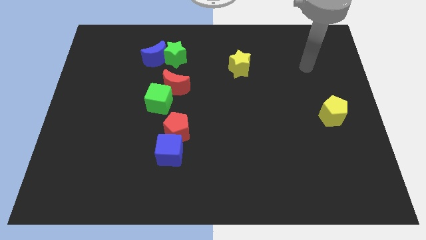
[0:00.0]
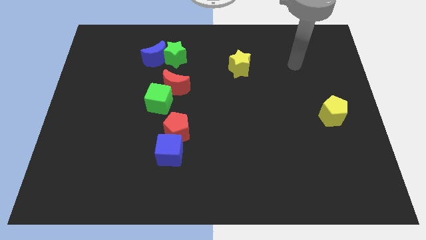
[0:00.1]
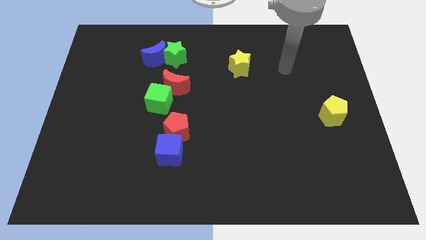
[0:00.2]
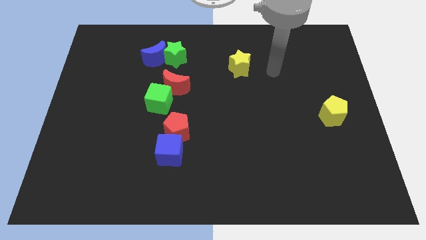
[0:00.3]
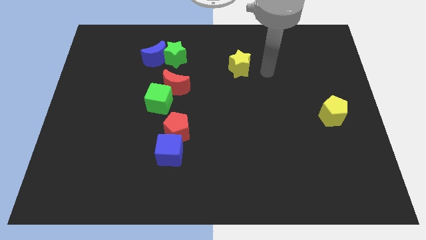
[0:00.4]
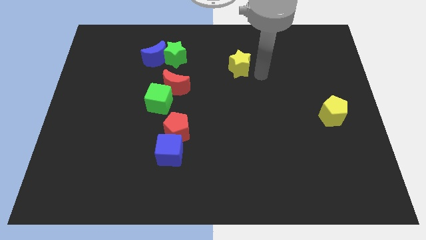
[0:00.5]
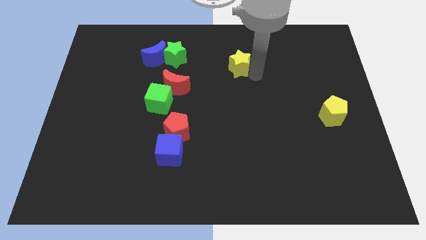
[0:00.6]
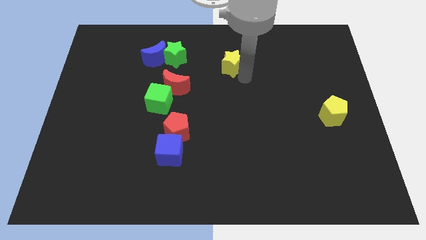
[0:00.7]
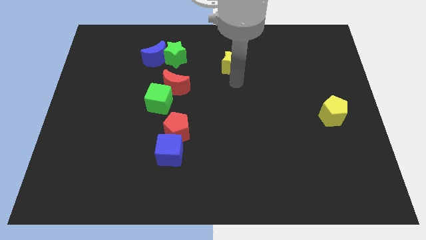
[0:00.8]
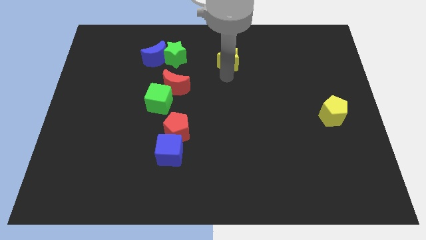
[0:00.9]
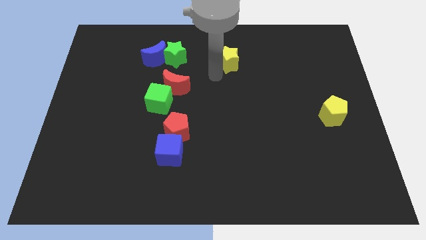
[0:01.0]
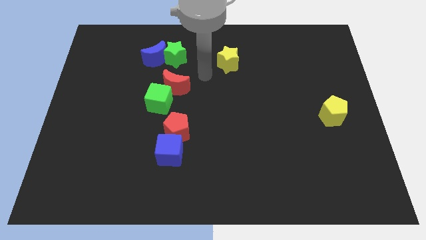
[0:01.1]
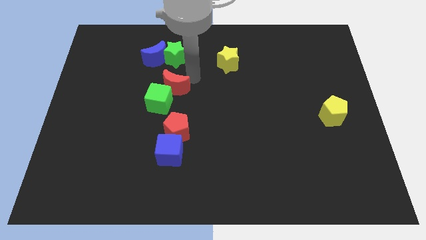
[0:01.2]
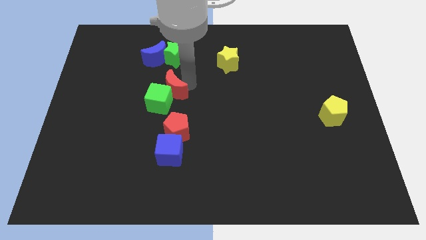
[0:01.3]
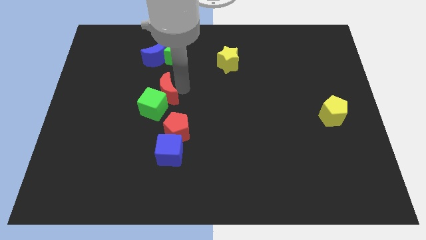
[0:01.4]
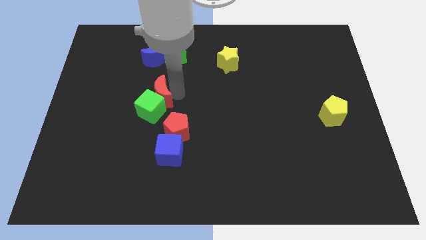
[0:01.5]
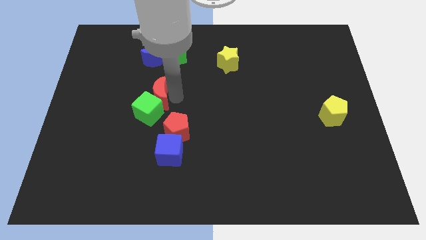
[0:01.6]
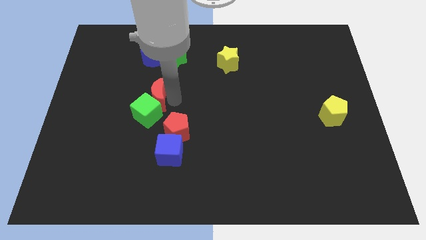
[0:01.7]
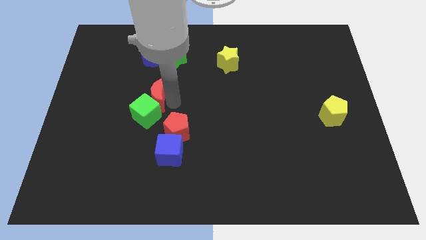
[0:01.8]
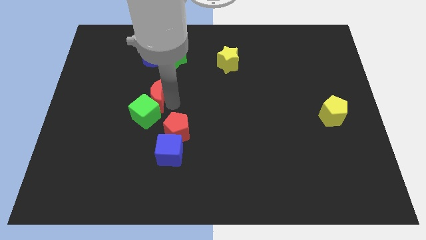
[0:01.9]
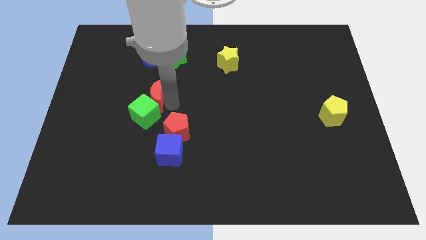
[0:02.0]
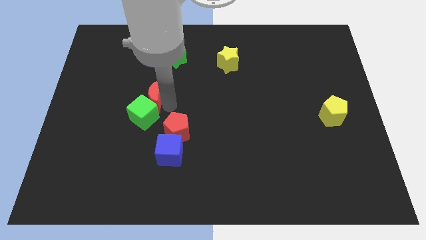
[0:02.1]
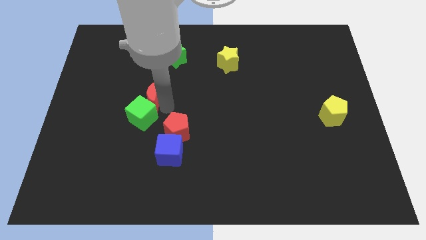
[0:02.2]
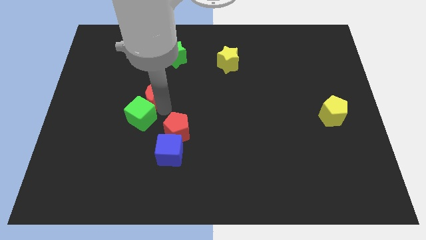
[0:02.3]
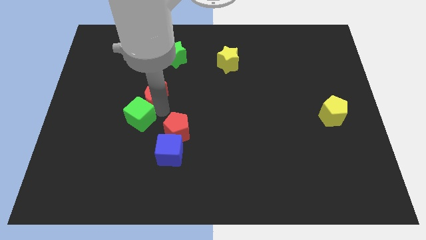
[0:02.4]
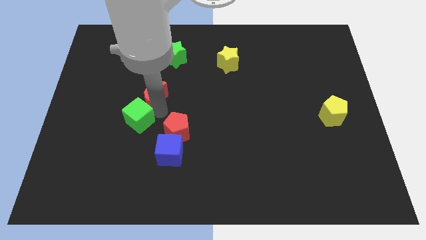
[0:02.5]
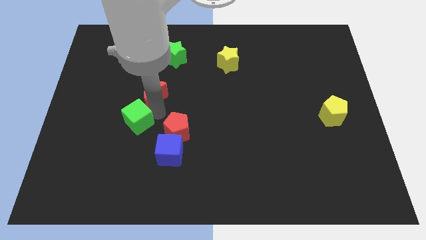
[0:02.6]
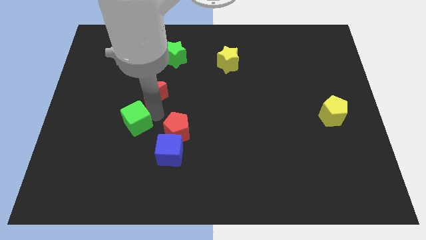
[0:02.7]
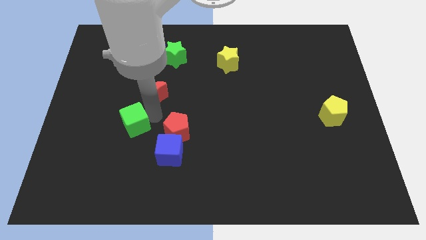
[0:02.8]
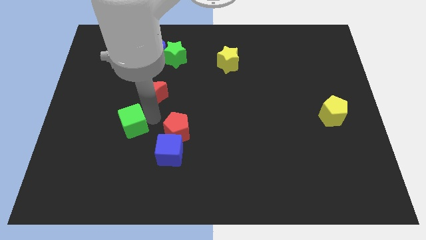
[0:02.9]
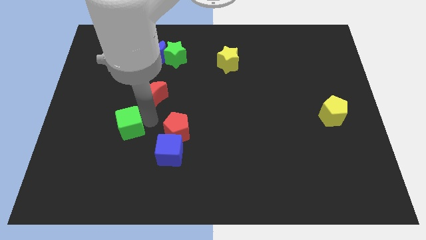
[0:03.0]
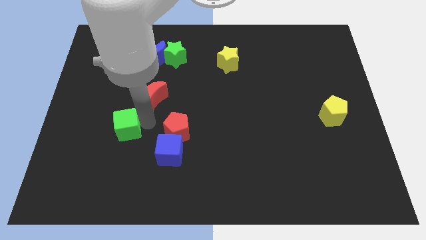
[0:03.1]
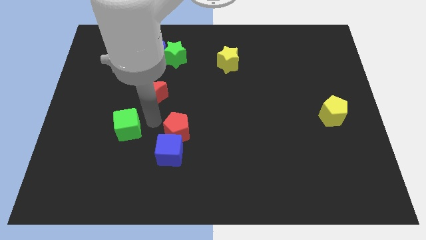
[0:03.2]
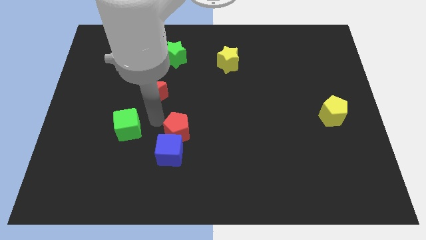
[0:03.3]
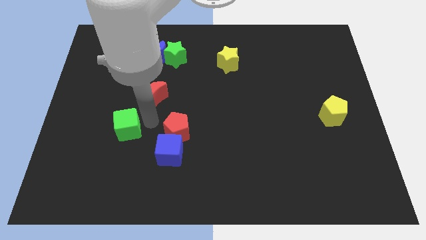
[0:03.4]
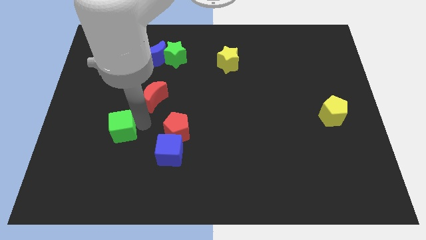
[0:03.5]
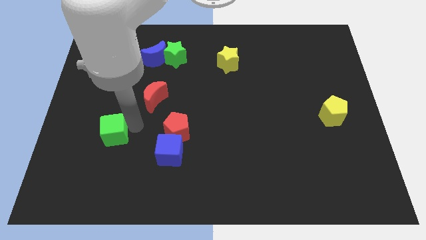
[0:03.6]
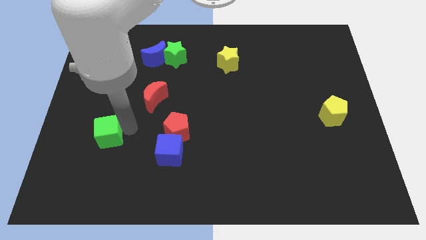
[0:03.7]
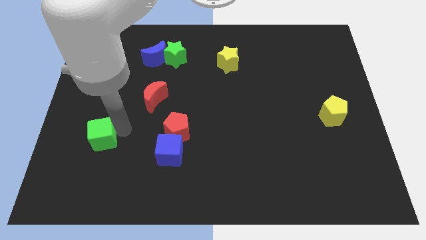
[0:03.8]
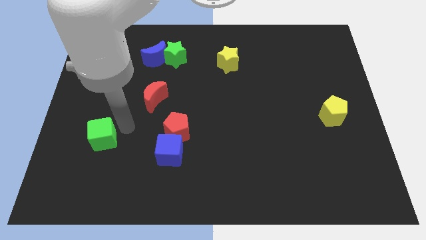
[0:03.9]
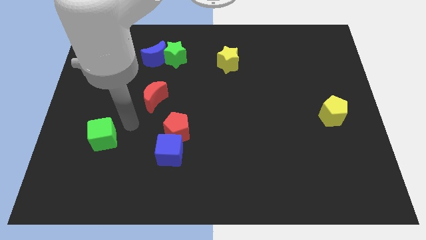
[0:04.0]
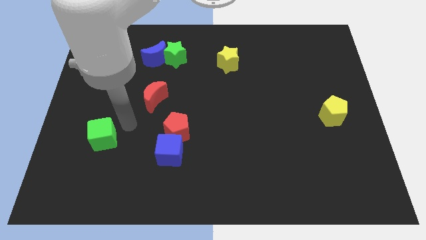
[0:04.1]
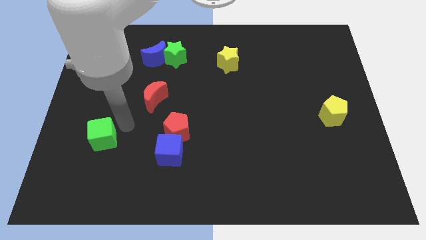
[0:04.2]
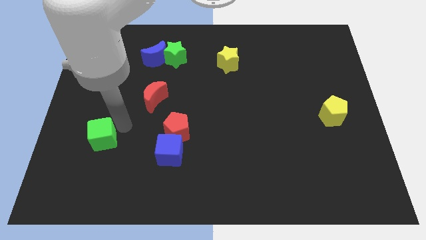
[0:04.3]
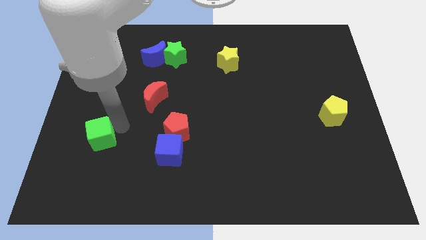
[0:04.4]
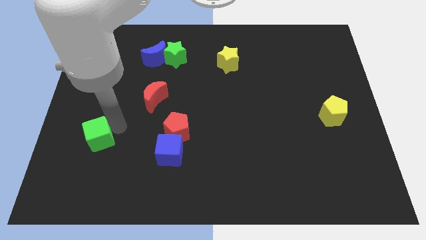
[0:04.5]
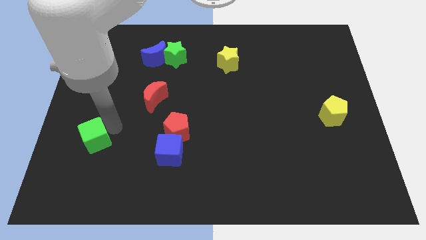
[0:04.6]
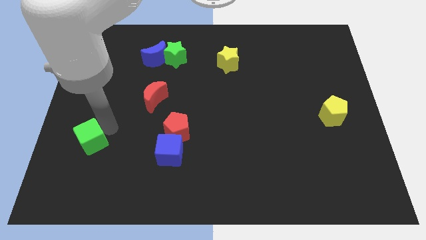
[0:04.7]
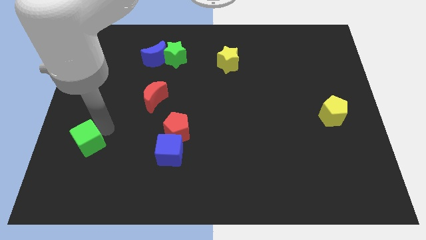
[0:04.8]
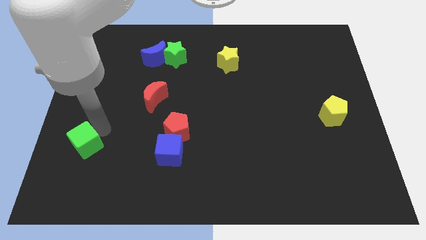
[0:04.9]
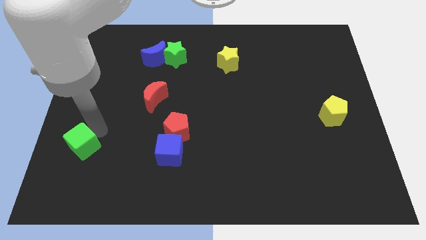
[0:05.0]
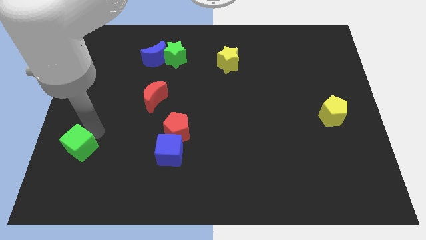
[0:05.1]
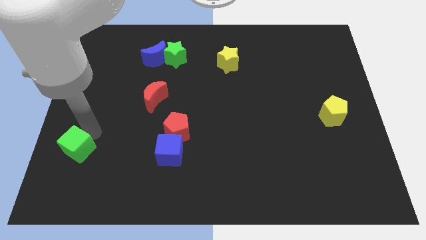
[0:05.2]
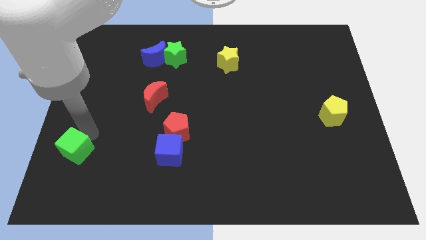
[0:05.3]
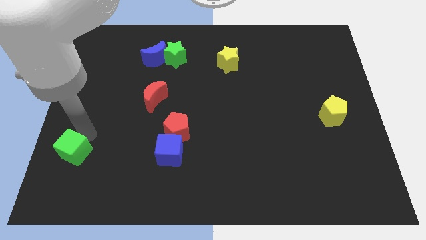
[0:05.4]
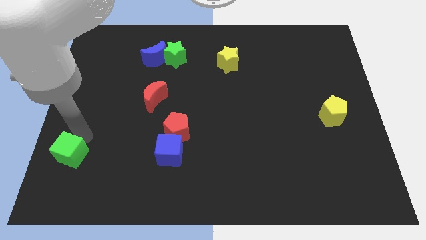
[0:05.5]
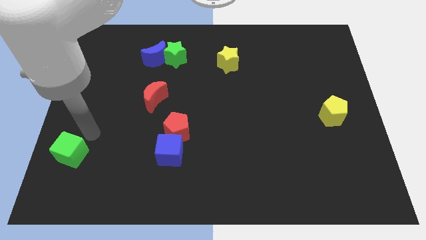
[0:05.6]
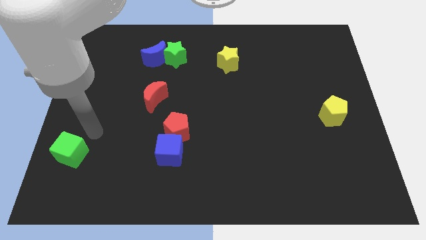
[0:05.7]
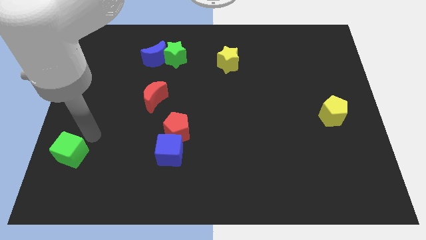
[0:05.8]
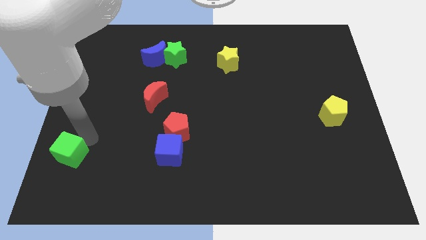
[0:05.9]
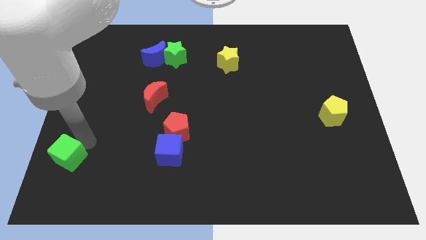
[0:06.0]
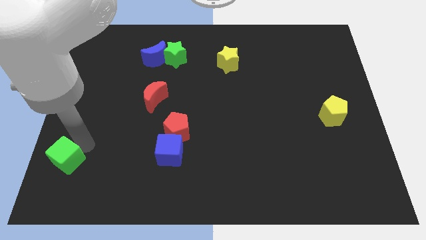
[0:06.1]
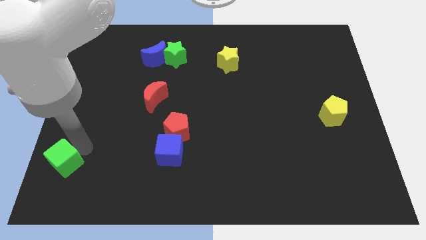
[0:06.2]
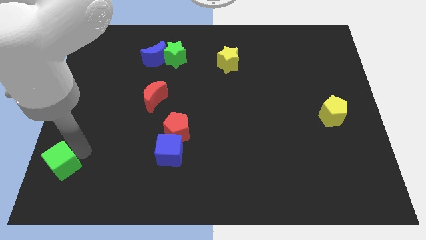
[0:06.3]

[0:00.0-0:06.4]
push the green cube to the bottom left corner

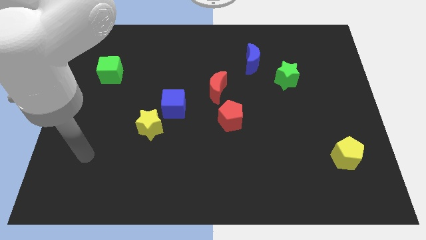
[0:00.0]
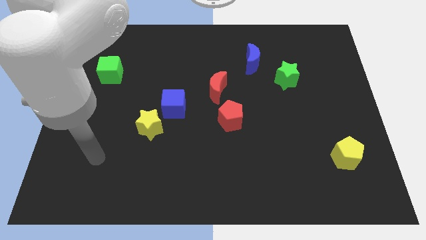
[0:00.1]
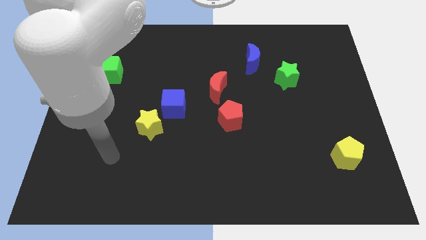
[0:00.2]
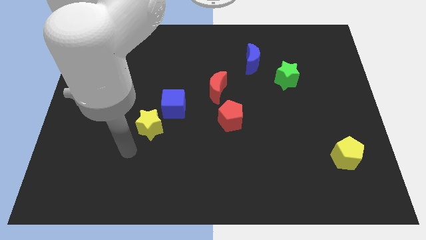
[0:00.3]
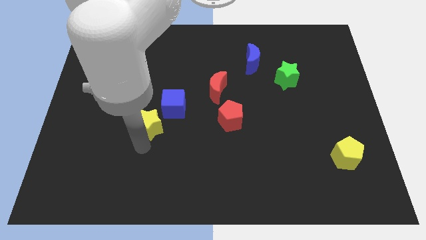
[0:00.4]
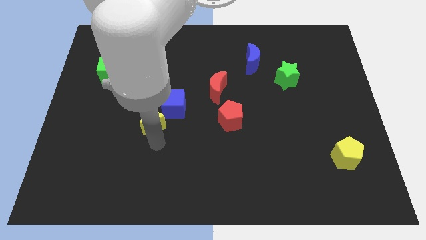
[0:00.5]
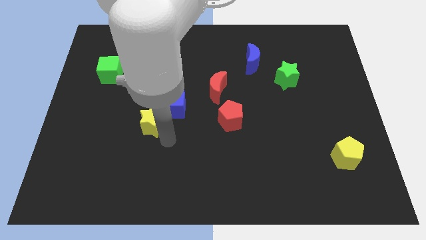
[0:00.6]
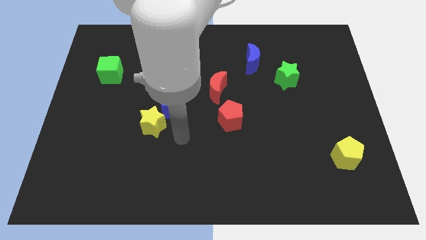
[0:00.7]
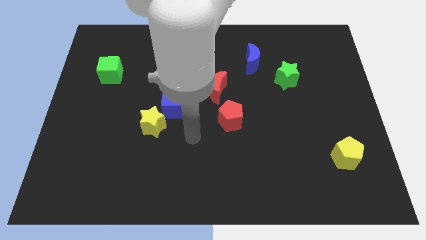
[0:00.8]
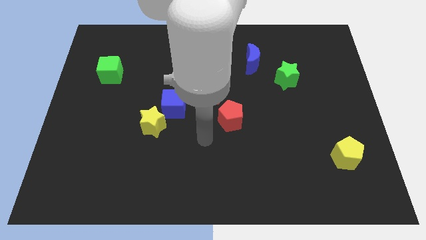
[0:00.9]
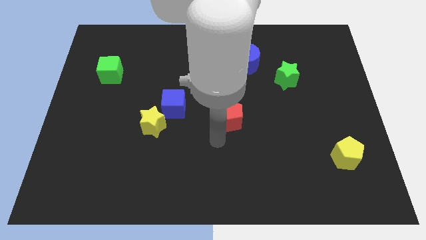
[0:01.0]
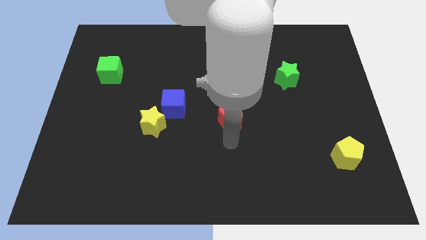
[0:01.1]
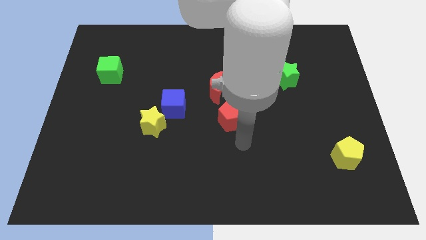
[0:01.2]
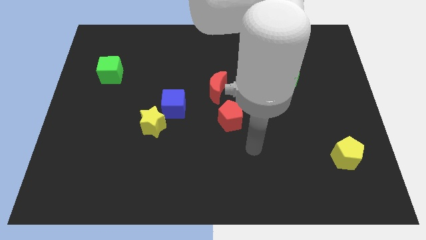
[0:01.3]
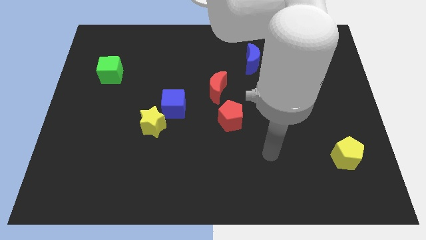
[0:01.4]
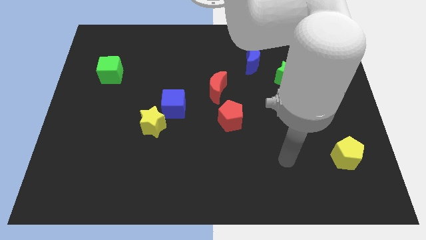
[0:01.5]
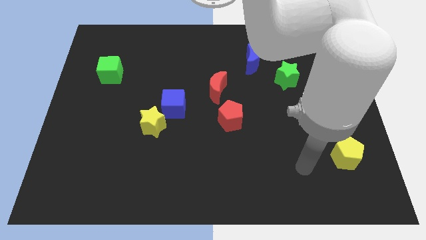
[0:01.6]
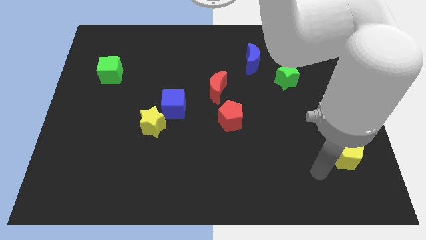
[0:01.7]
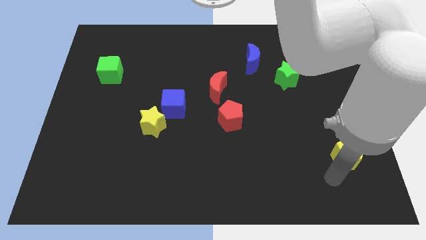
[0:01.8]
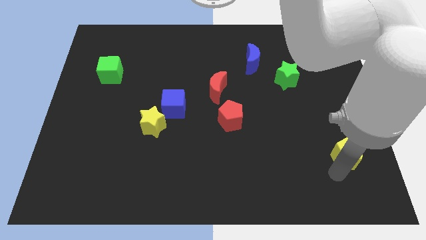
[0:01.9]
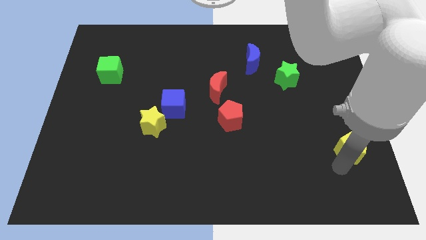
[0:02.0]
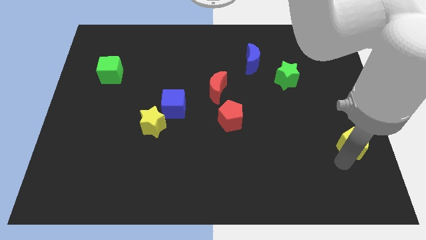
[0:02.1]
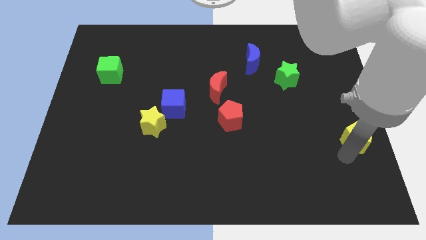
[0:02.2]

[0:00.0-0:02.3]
push the yellow pentagon to the right side of the board
